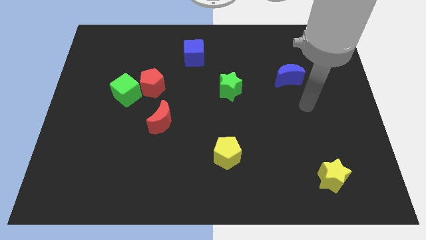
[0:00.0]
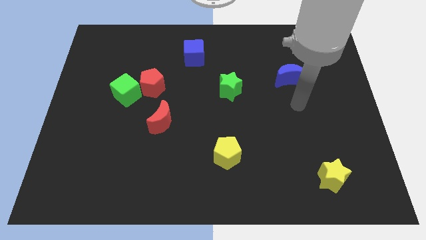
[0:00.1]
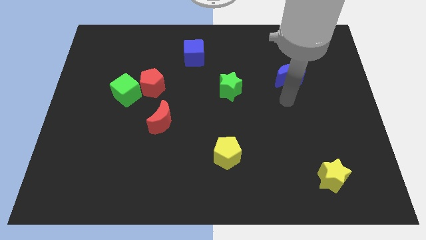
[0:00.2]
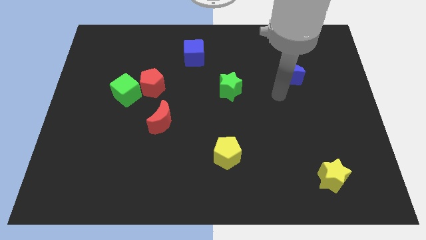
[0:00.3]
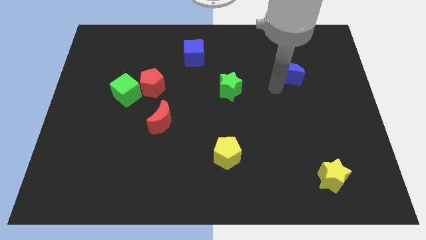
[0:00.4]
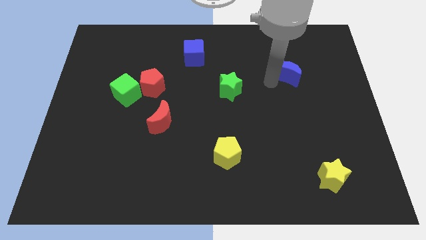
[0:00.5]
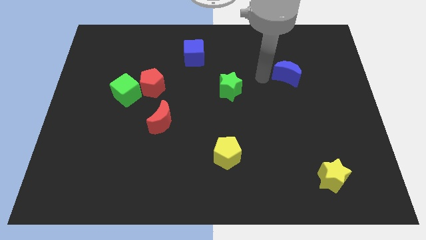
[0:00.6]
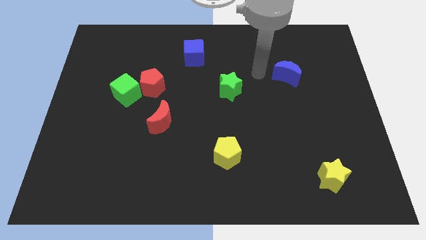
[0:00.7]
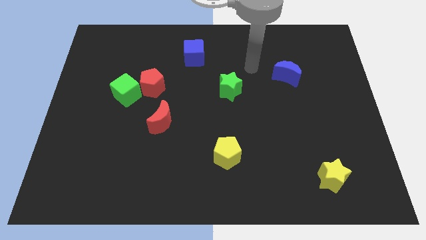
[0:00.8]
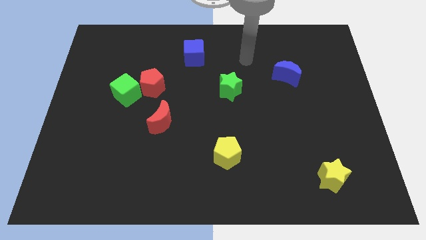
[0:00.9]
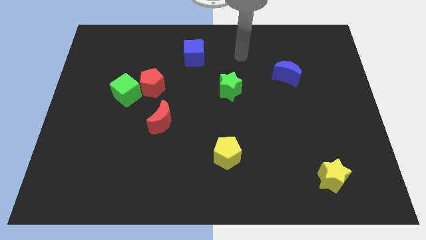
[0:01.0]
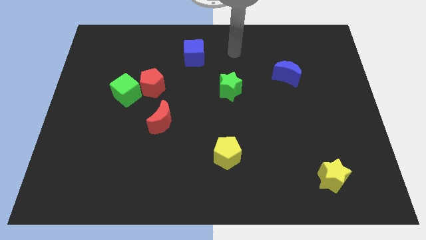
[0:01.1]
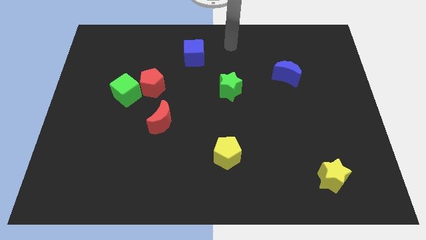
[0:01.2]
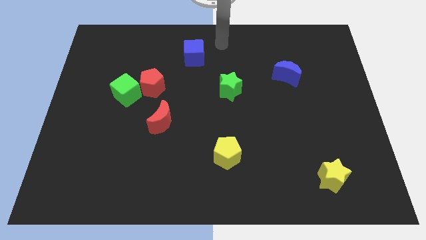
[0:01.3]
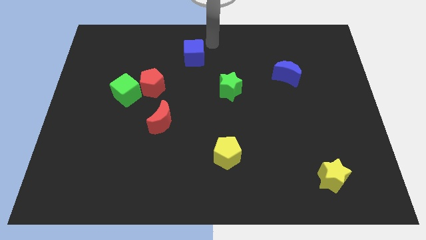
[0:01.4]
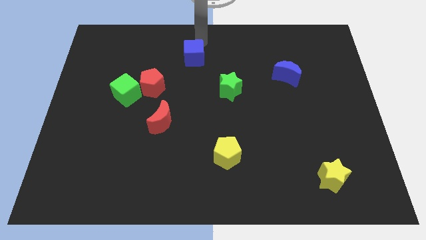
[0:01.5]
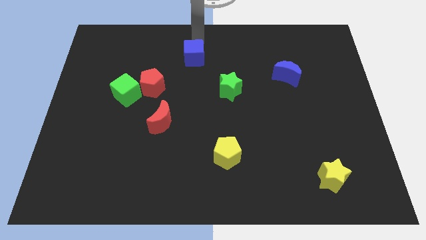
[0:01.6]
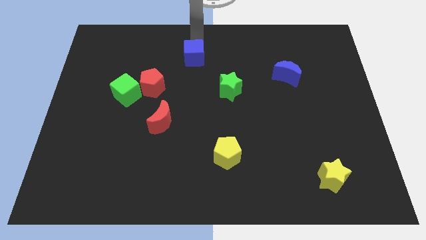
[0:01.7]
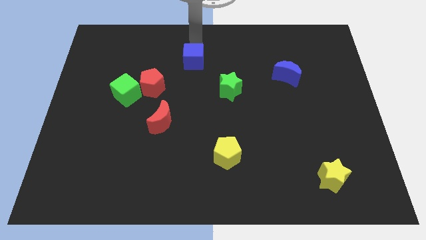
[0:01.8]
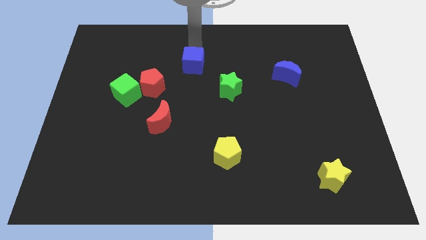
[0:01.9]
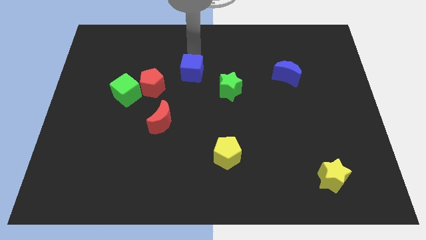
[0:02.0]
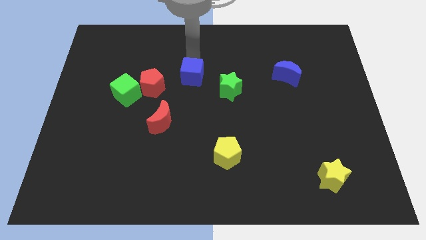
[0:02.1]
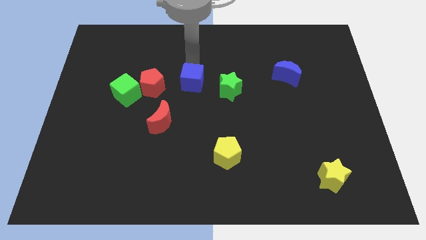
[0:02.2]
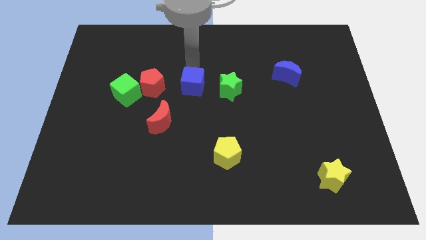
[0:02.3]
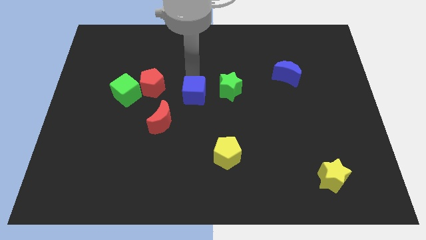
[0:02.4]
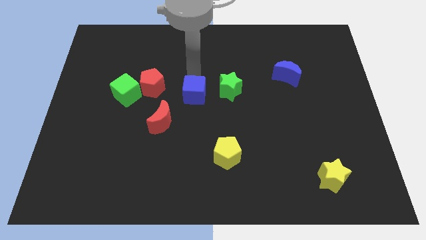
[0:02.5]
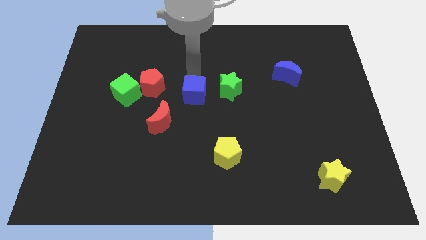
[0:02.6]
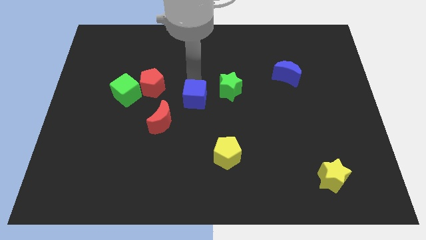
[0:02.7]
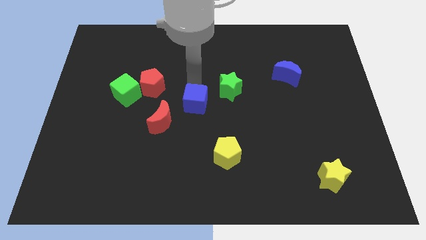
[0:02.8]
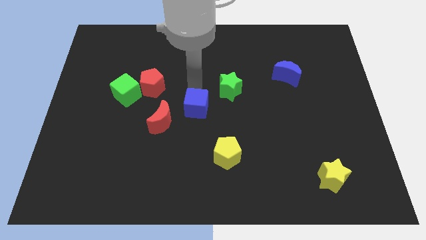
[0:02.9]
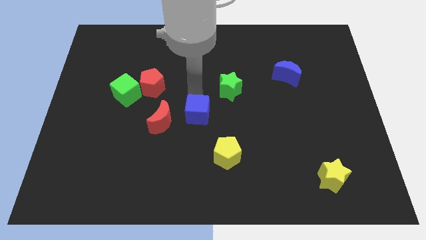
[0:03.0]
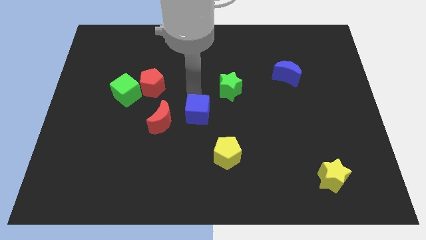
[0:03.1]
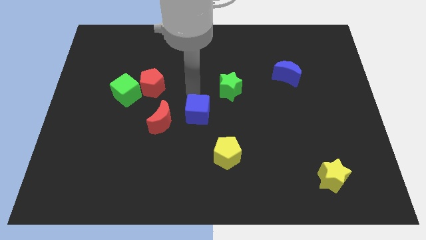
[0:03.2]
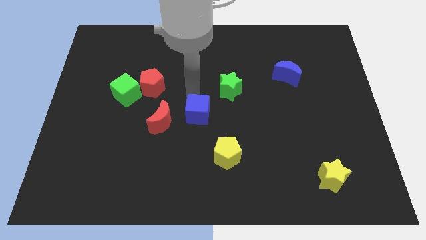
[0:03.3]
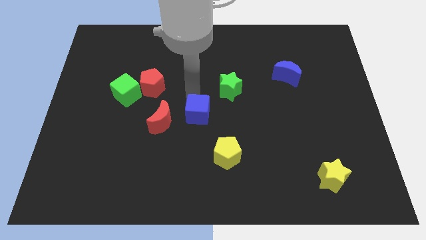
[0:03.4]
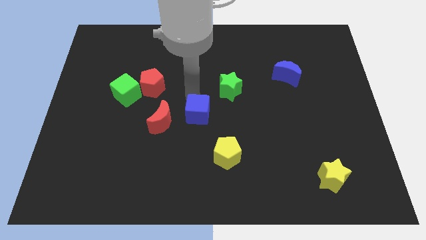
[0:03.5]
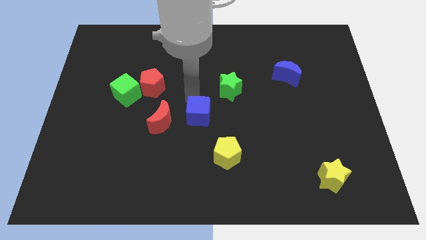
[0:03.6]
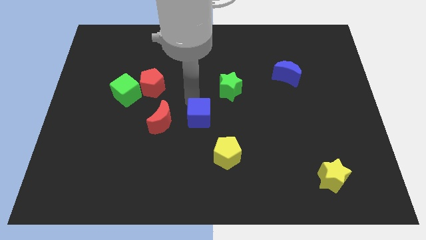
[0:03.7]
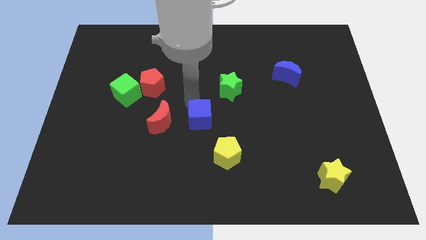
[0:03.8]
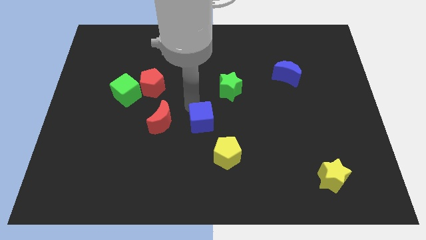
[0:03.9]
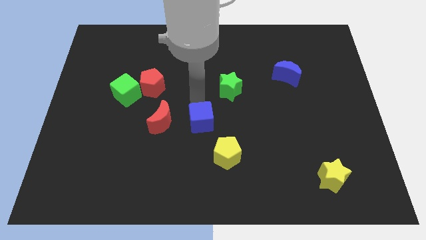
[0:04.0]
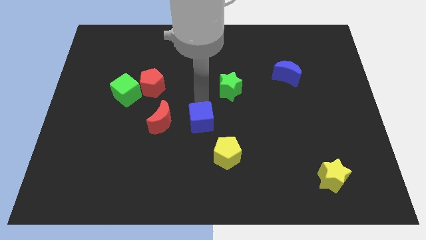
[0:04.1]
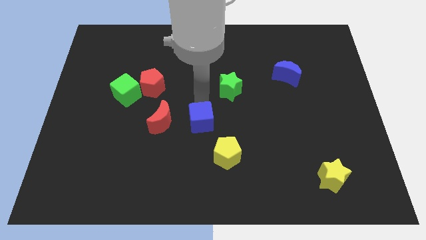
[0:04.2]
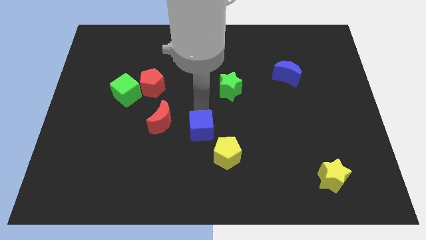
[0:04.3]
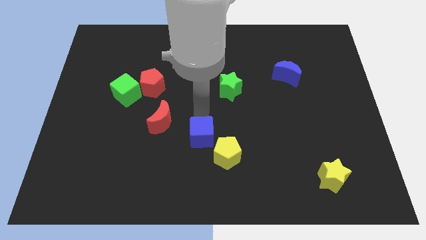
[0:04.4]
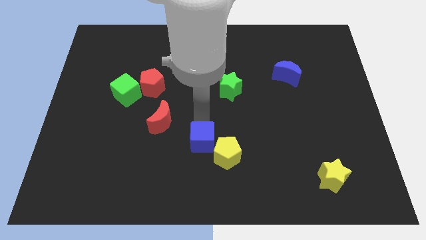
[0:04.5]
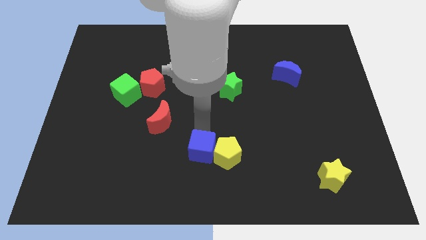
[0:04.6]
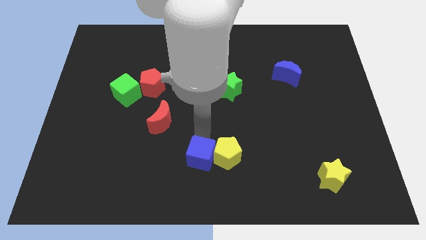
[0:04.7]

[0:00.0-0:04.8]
slide the blue cube to the bottom

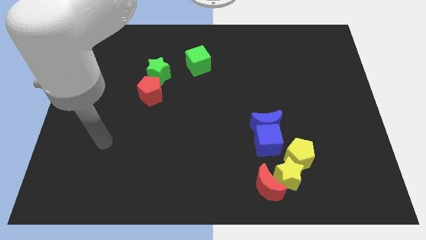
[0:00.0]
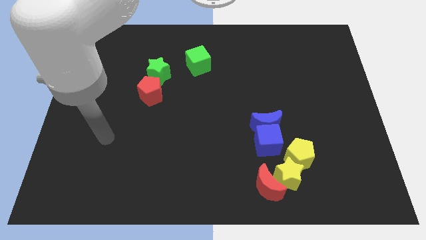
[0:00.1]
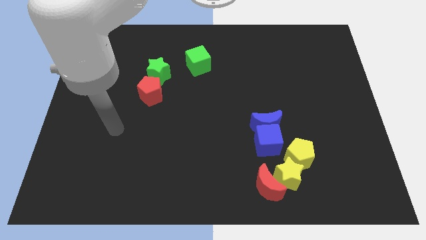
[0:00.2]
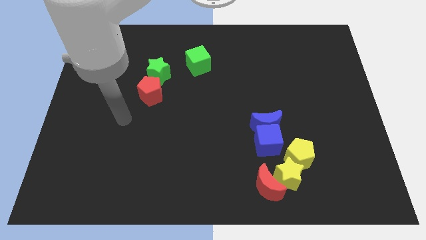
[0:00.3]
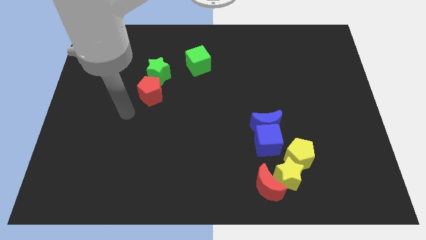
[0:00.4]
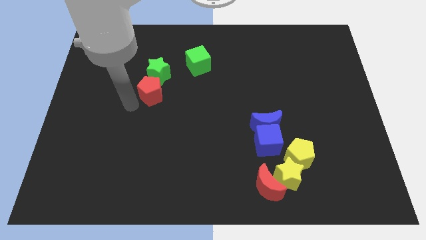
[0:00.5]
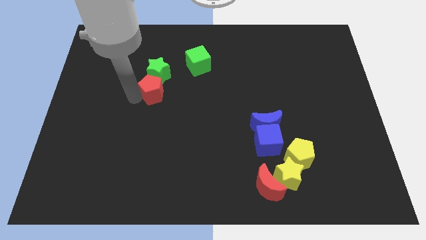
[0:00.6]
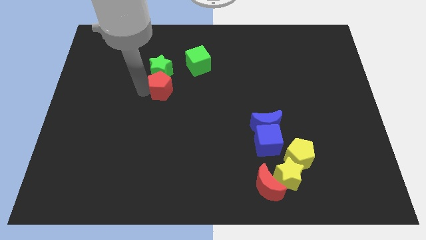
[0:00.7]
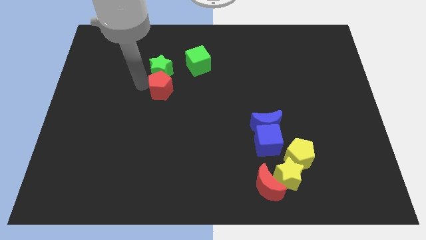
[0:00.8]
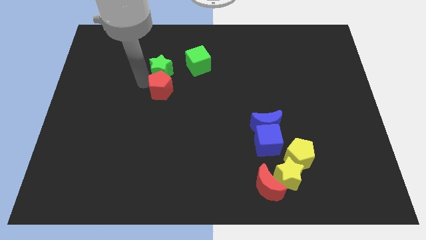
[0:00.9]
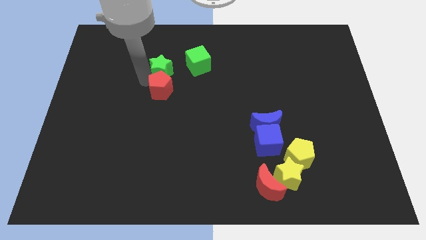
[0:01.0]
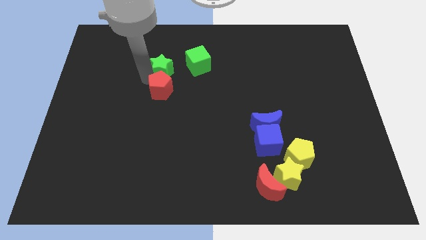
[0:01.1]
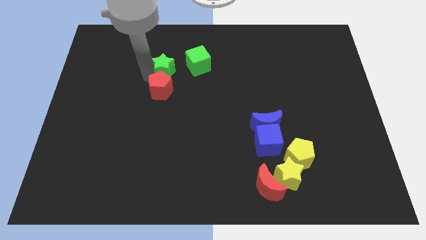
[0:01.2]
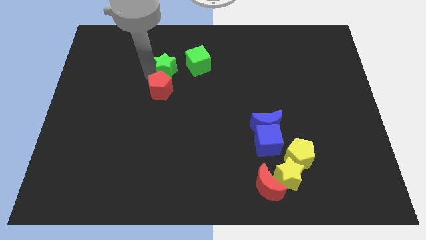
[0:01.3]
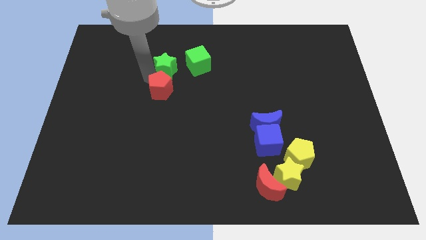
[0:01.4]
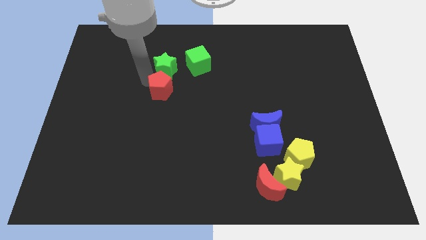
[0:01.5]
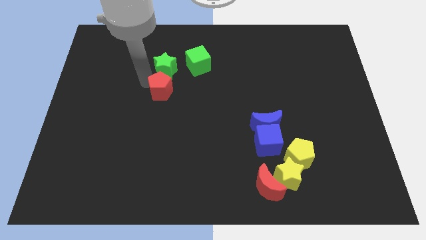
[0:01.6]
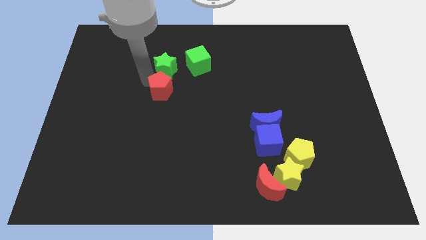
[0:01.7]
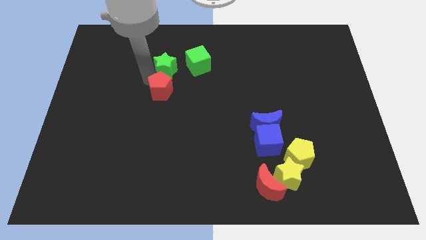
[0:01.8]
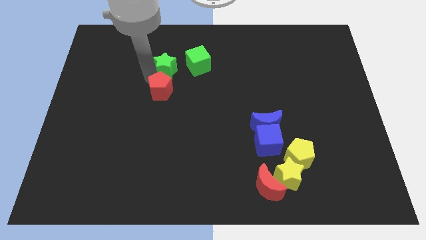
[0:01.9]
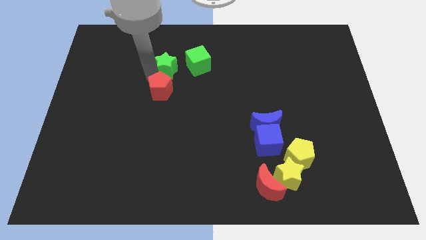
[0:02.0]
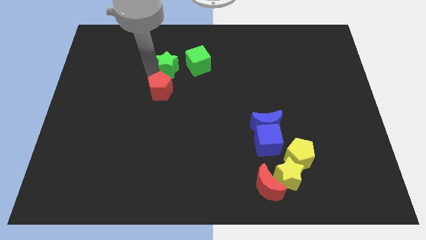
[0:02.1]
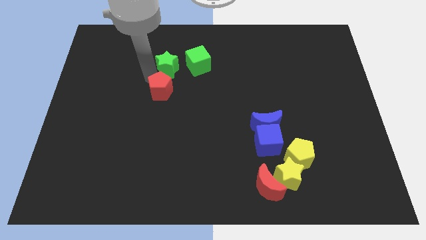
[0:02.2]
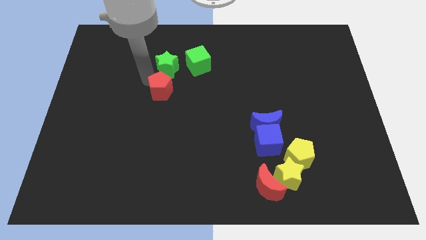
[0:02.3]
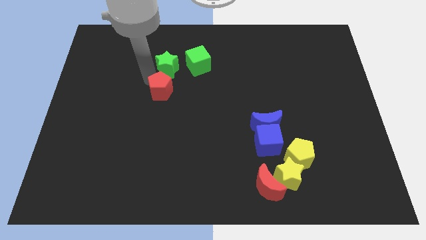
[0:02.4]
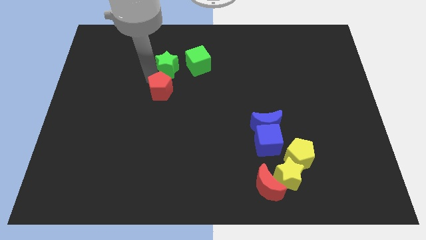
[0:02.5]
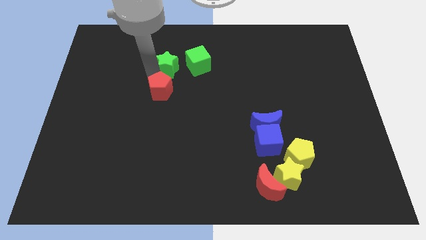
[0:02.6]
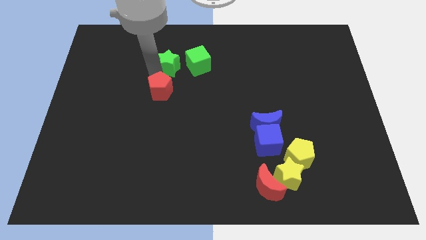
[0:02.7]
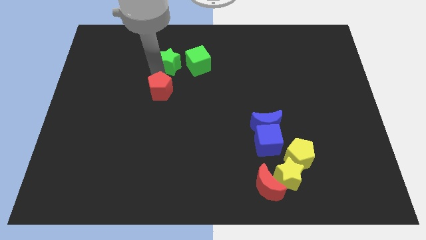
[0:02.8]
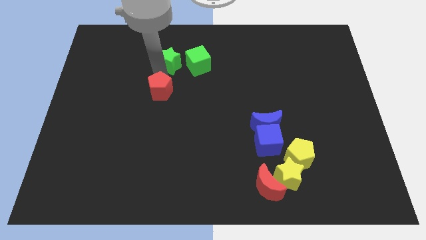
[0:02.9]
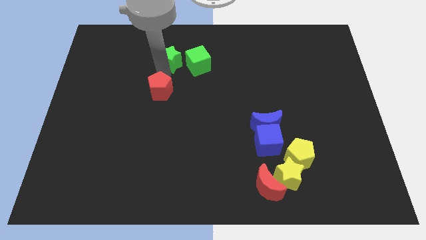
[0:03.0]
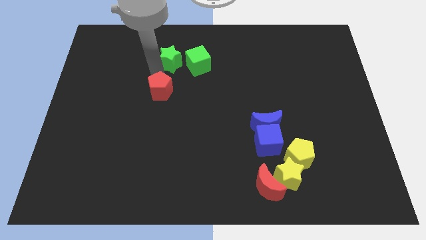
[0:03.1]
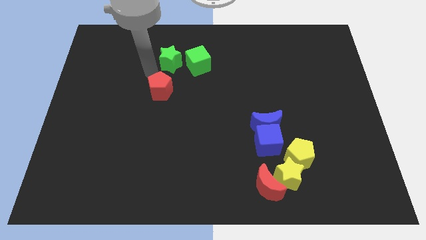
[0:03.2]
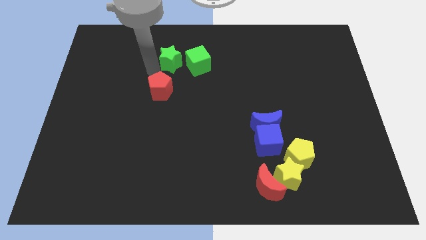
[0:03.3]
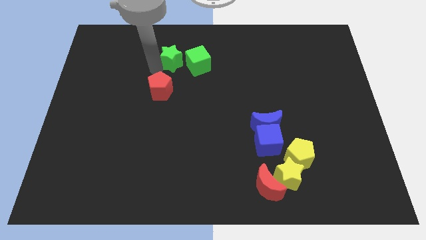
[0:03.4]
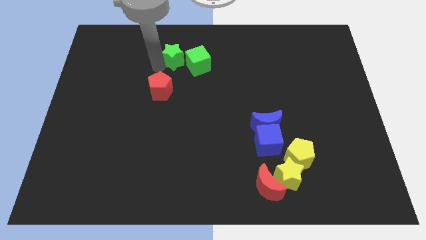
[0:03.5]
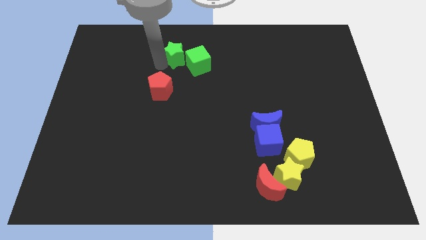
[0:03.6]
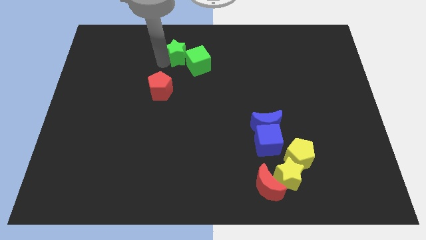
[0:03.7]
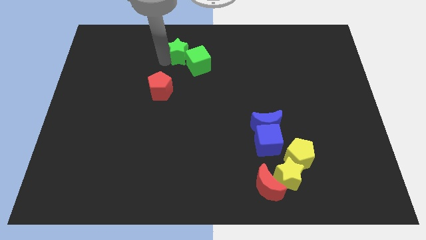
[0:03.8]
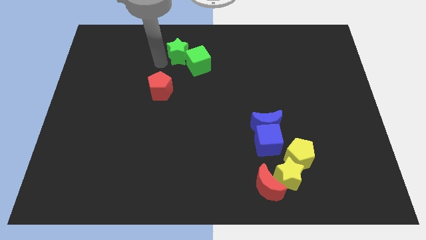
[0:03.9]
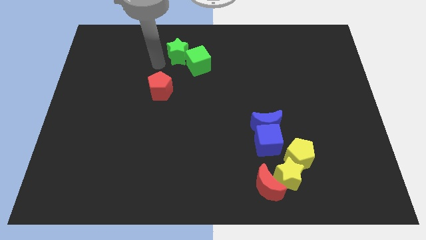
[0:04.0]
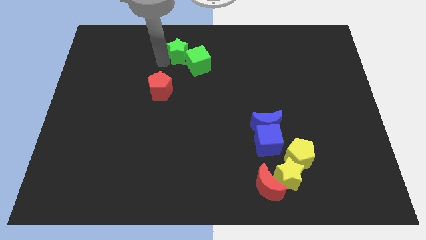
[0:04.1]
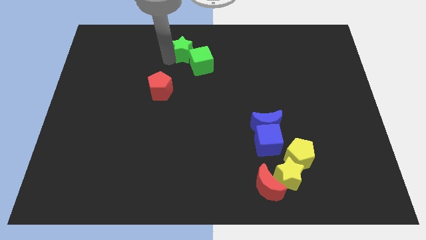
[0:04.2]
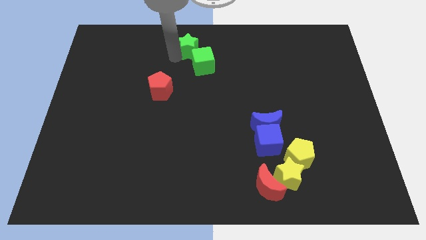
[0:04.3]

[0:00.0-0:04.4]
push the green star to the towards your base
